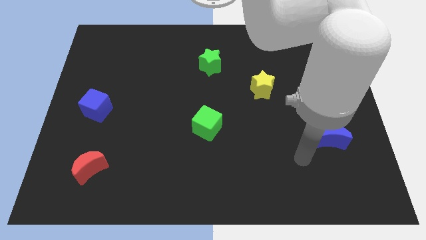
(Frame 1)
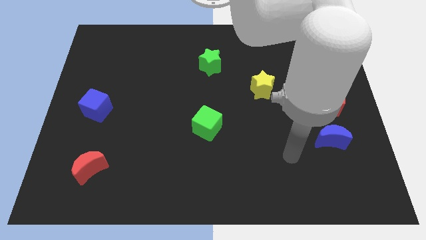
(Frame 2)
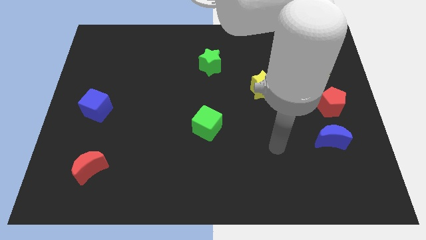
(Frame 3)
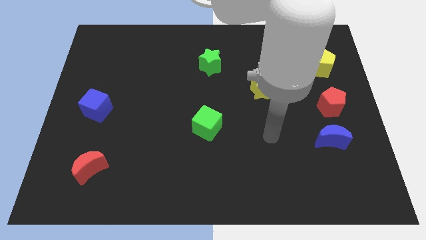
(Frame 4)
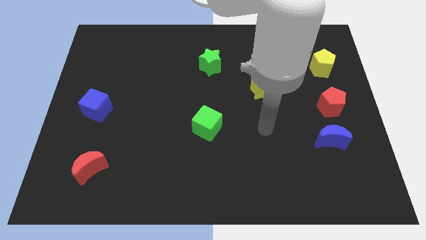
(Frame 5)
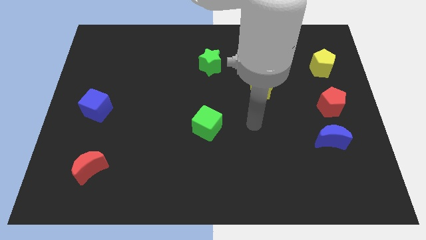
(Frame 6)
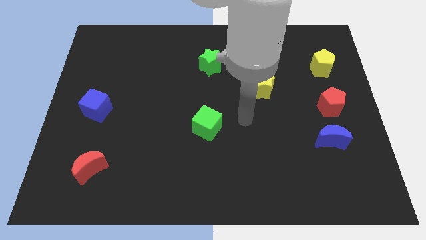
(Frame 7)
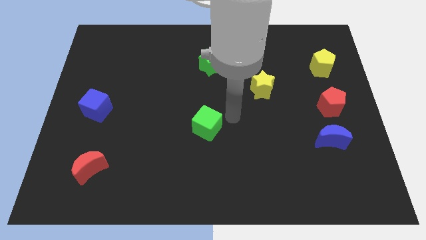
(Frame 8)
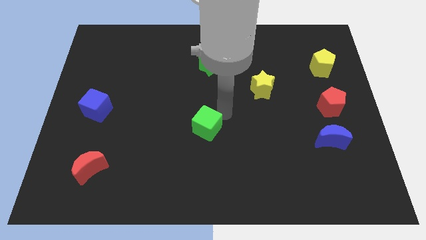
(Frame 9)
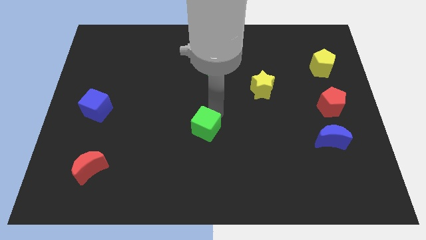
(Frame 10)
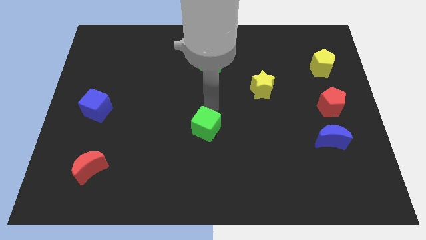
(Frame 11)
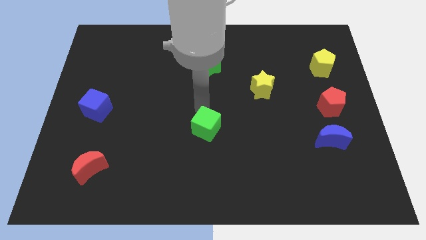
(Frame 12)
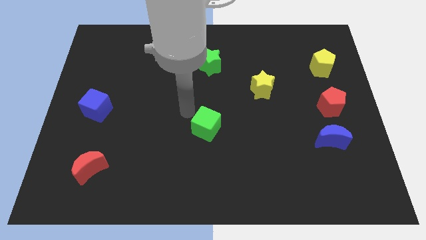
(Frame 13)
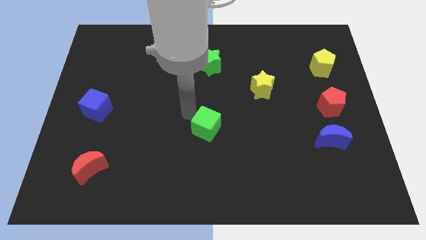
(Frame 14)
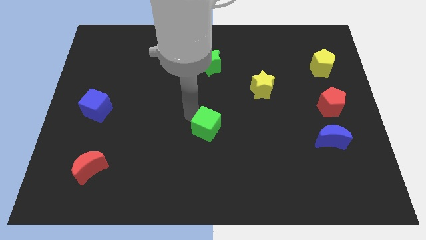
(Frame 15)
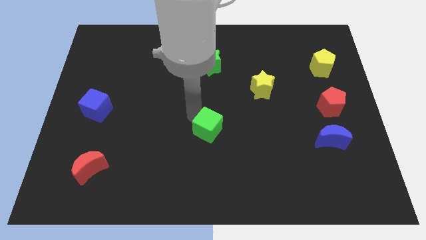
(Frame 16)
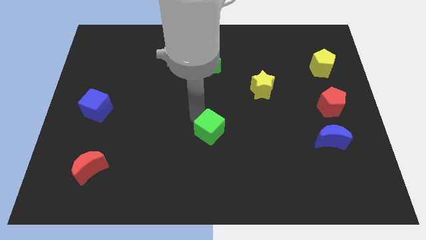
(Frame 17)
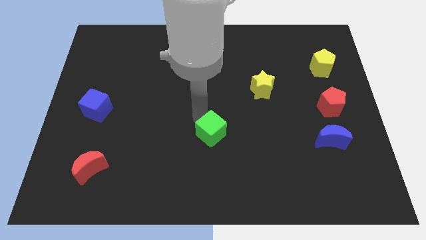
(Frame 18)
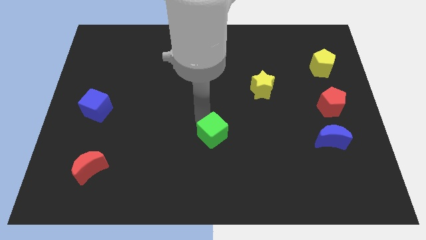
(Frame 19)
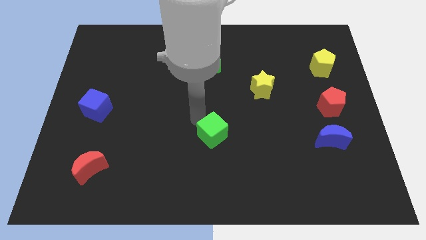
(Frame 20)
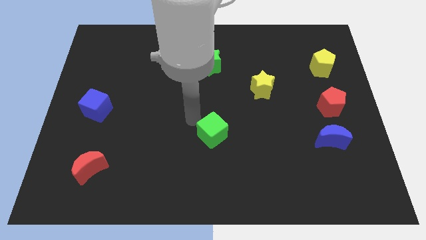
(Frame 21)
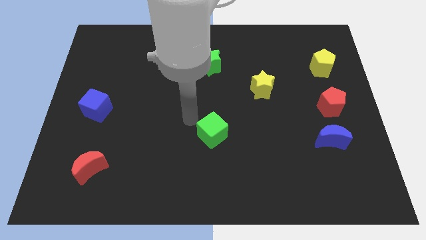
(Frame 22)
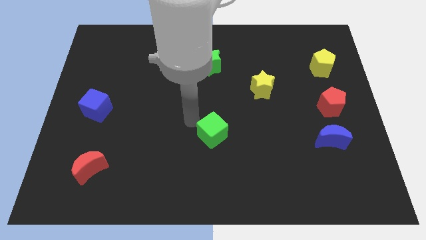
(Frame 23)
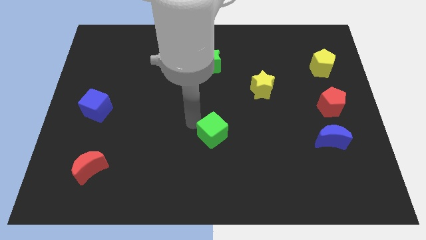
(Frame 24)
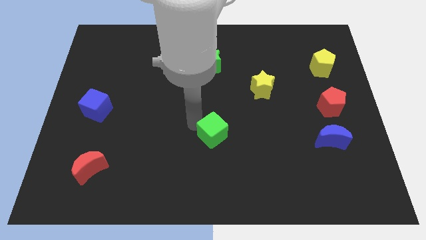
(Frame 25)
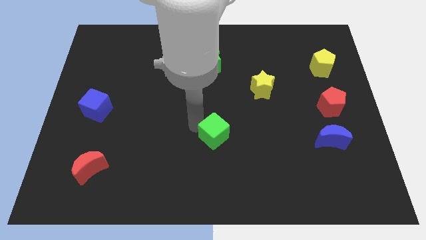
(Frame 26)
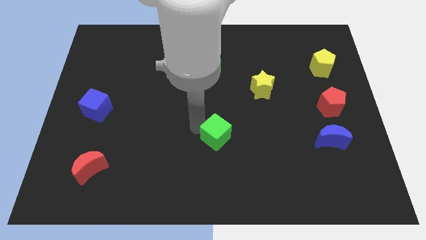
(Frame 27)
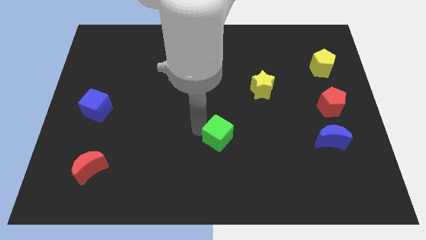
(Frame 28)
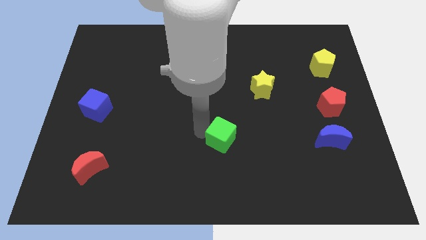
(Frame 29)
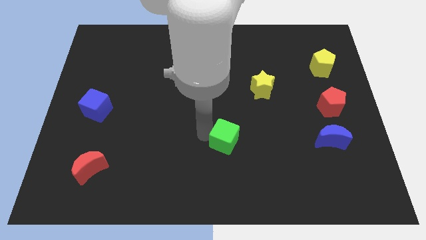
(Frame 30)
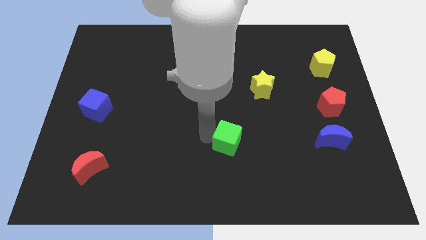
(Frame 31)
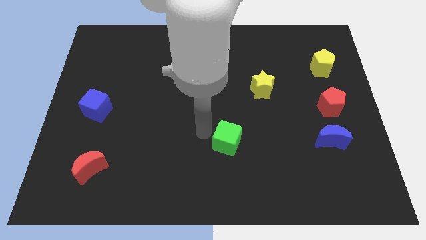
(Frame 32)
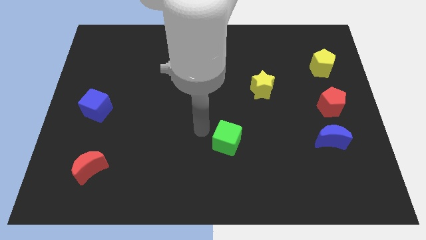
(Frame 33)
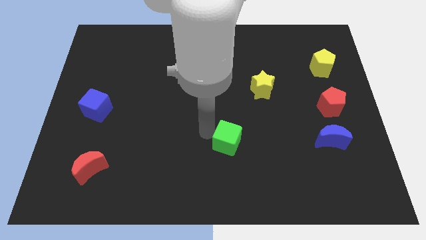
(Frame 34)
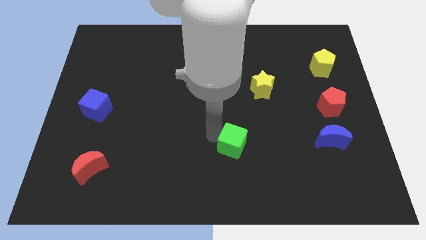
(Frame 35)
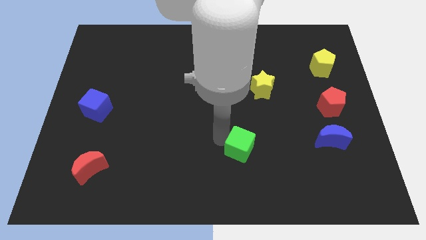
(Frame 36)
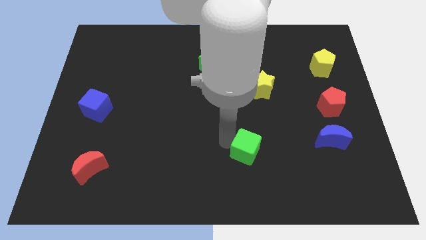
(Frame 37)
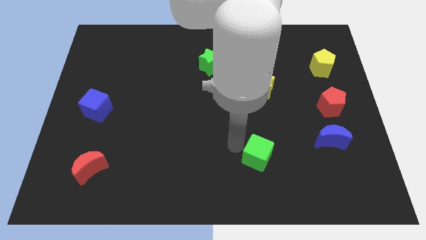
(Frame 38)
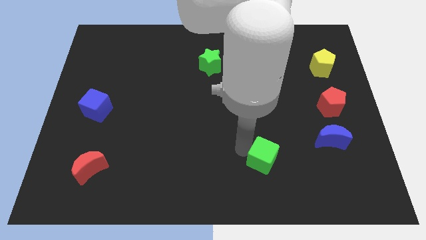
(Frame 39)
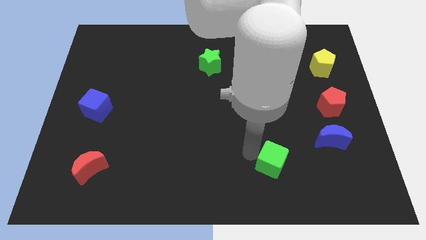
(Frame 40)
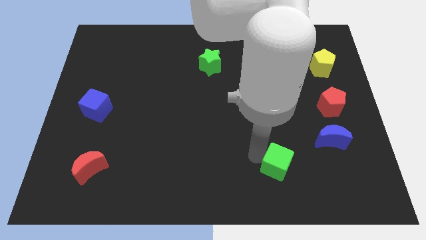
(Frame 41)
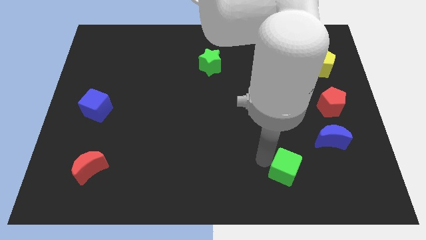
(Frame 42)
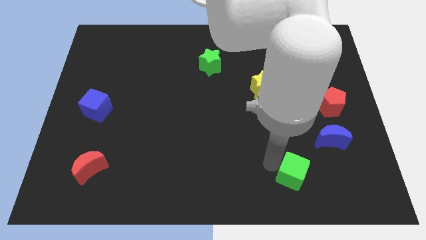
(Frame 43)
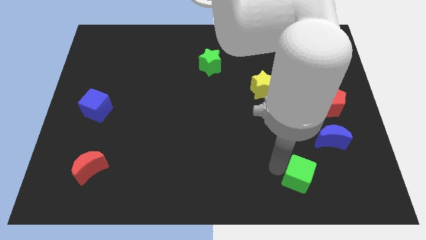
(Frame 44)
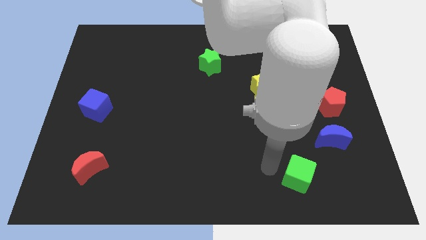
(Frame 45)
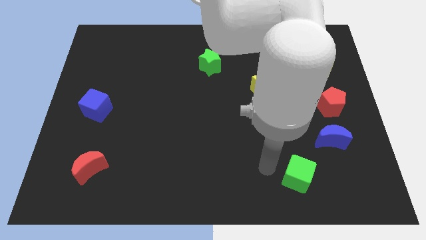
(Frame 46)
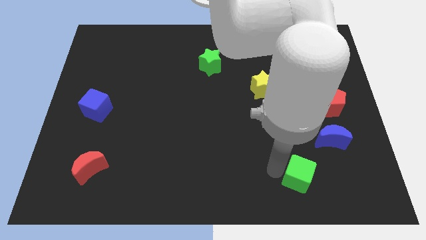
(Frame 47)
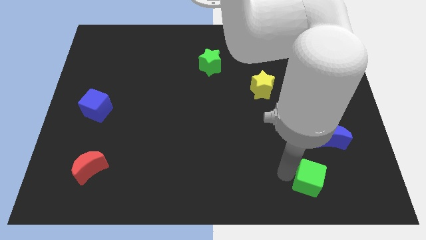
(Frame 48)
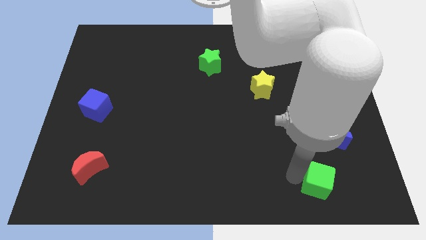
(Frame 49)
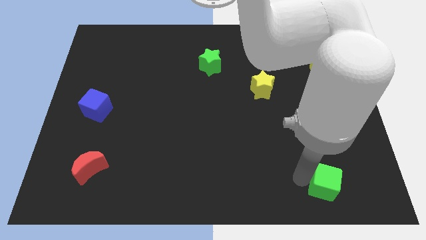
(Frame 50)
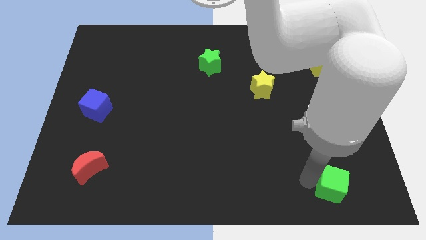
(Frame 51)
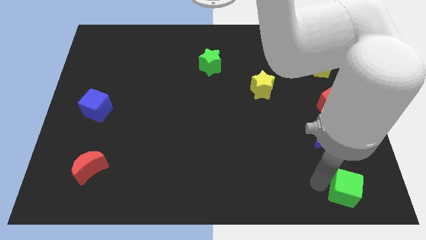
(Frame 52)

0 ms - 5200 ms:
slide the green cube to the bottom right of the board

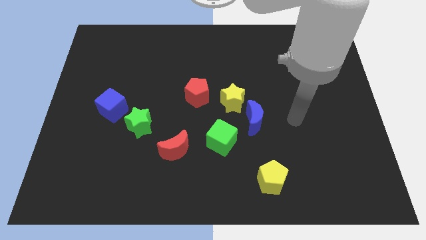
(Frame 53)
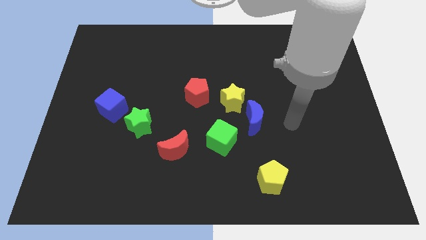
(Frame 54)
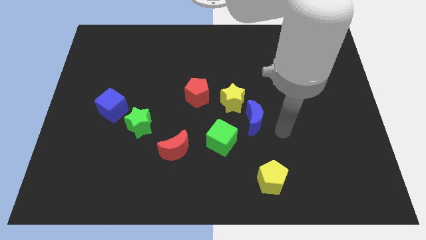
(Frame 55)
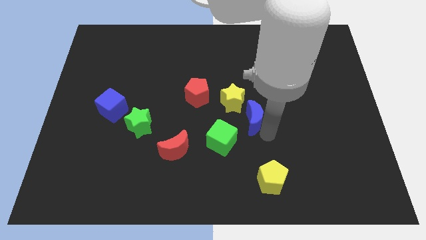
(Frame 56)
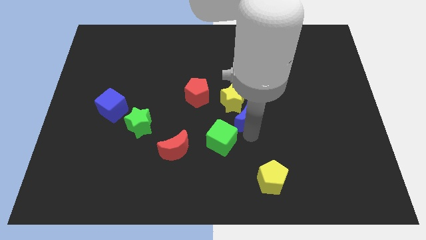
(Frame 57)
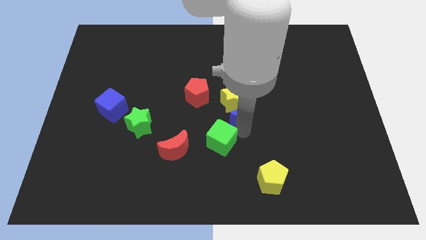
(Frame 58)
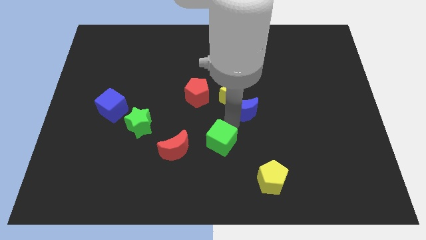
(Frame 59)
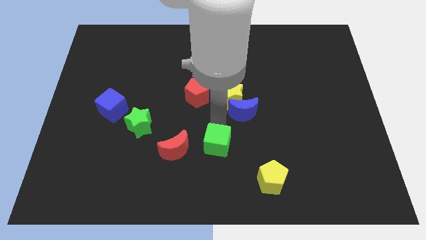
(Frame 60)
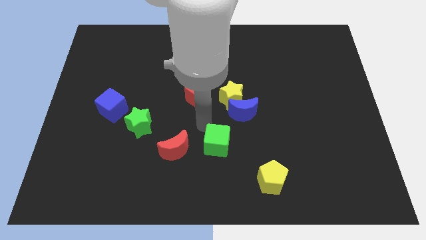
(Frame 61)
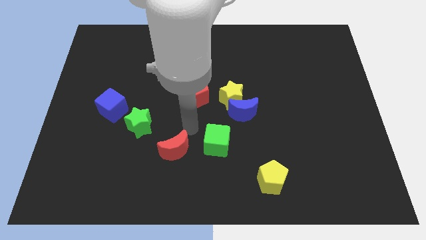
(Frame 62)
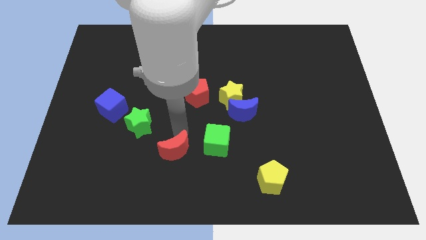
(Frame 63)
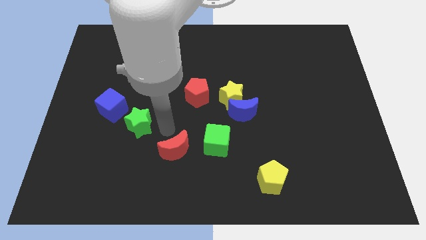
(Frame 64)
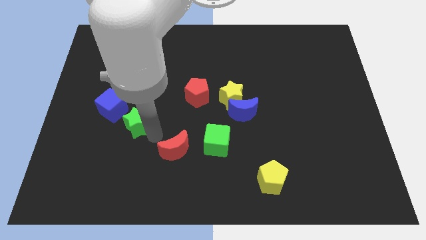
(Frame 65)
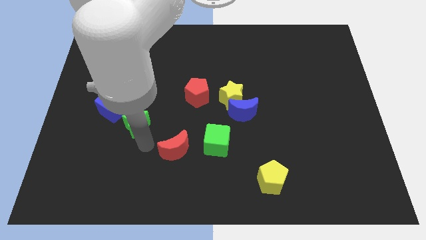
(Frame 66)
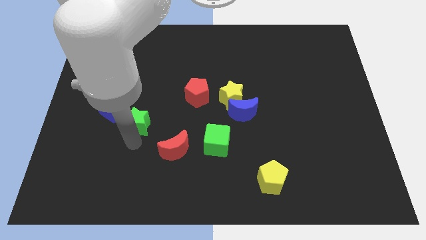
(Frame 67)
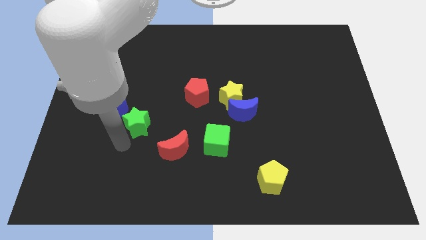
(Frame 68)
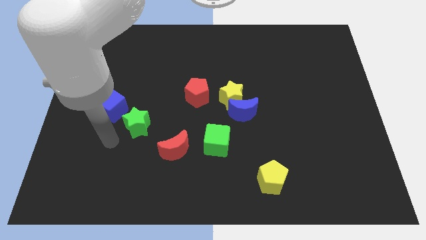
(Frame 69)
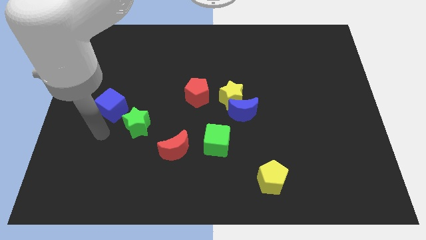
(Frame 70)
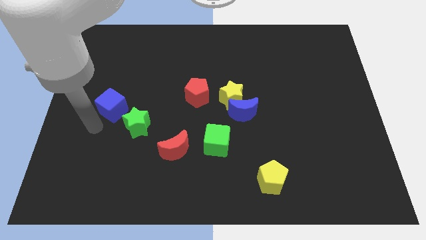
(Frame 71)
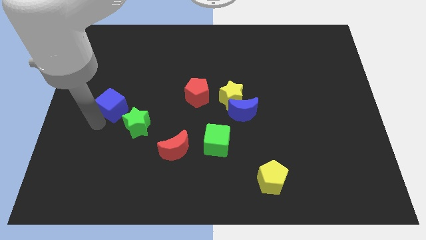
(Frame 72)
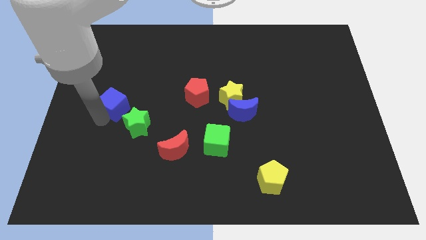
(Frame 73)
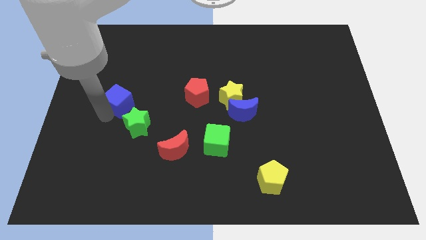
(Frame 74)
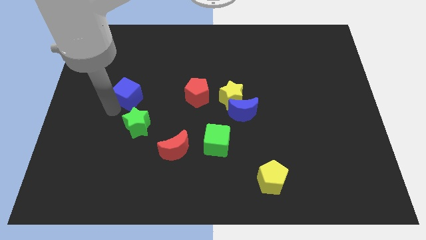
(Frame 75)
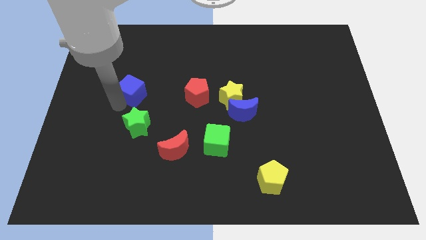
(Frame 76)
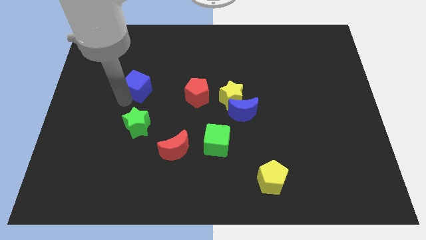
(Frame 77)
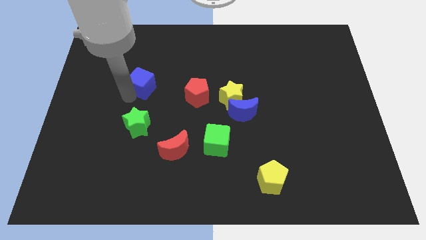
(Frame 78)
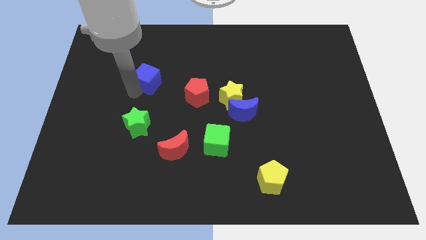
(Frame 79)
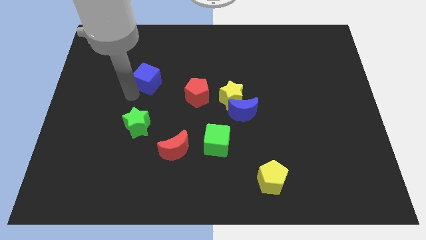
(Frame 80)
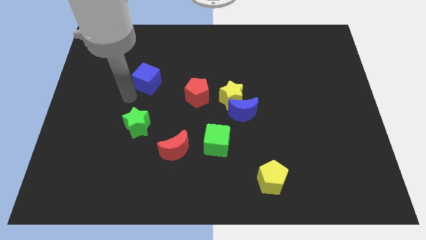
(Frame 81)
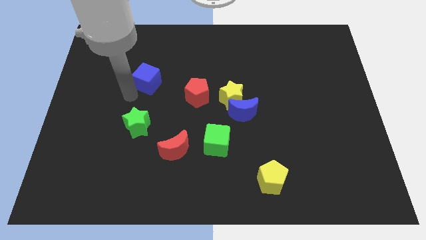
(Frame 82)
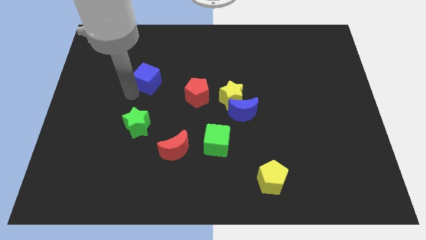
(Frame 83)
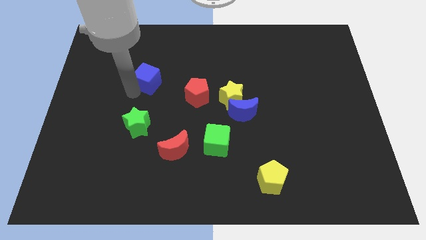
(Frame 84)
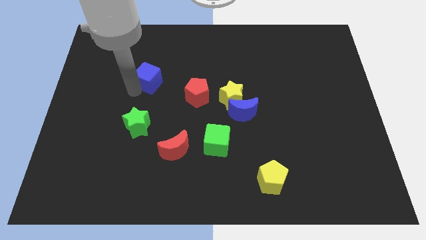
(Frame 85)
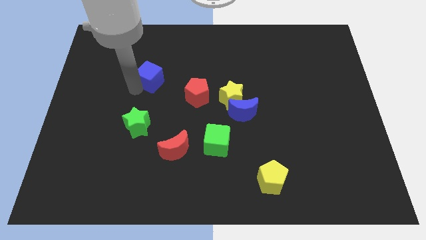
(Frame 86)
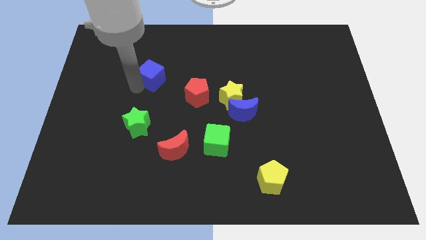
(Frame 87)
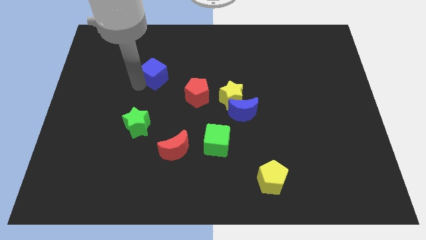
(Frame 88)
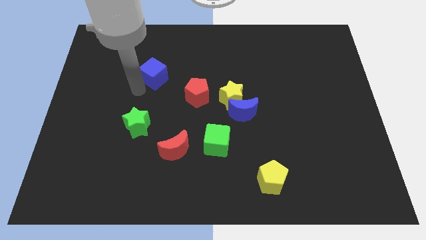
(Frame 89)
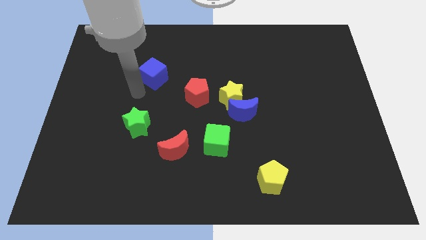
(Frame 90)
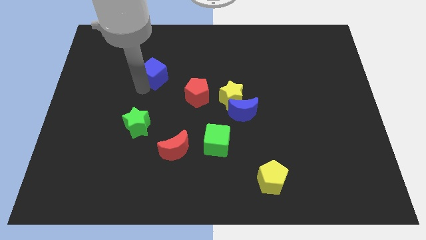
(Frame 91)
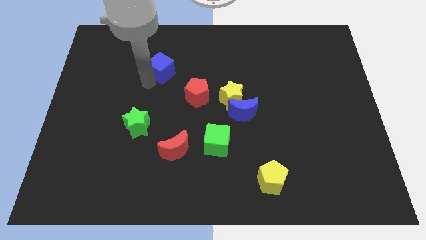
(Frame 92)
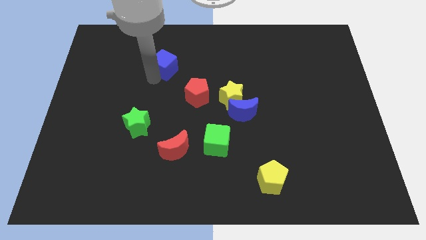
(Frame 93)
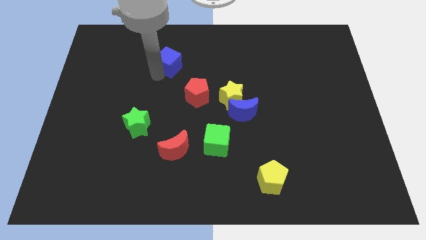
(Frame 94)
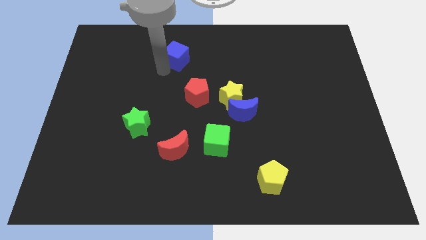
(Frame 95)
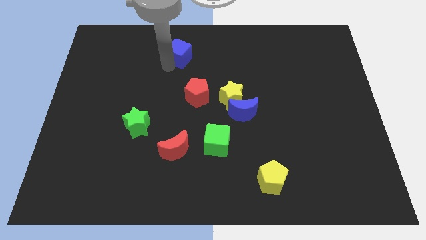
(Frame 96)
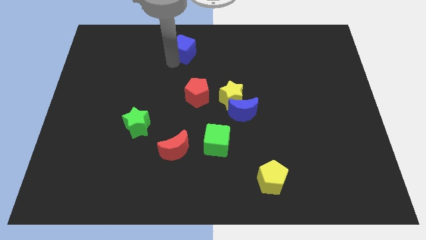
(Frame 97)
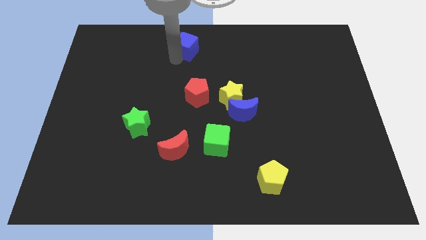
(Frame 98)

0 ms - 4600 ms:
put the blue cube to the top
